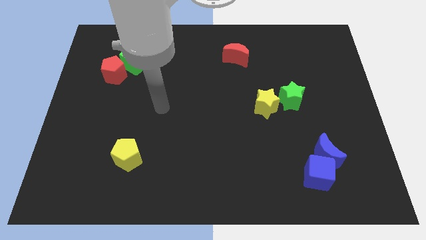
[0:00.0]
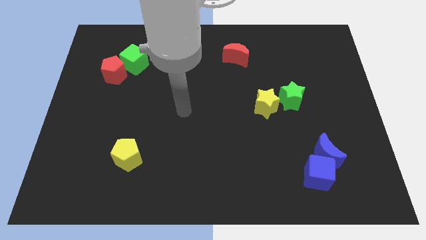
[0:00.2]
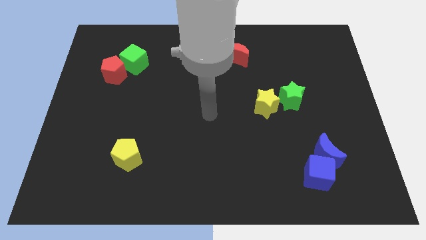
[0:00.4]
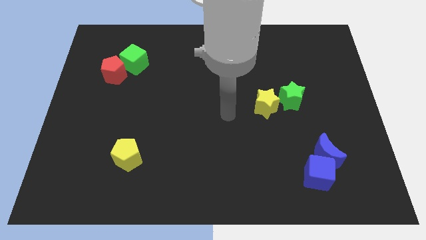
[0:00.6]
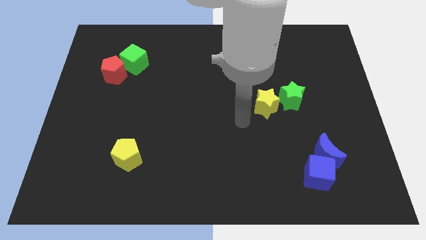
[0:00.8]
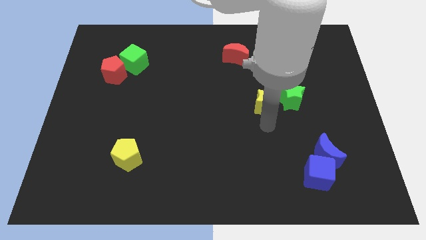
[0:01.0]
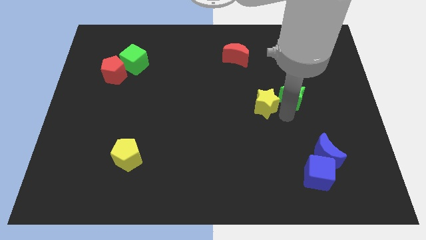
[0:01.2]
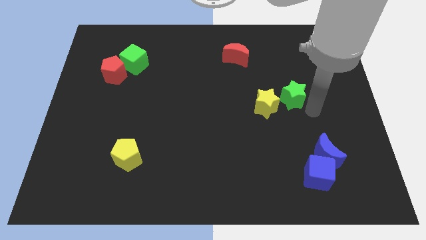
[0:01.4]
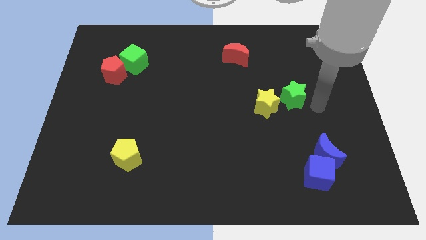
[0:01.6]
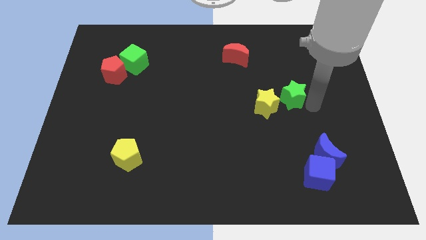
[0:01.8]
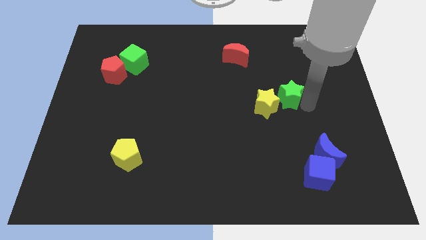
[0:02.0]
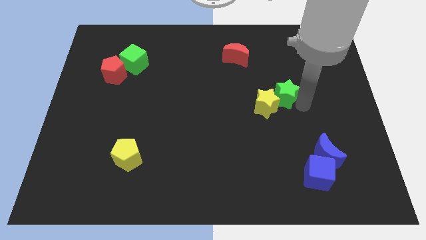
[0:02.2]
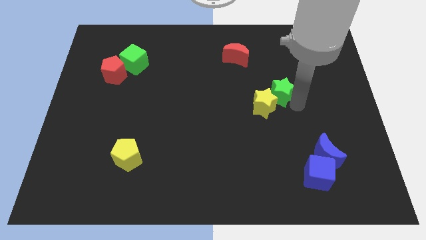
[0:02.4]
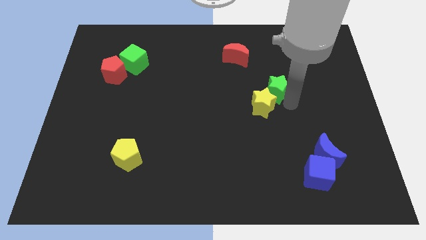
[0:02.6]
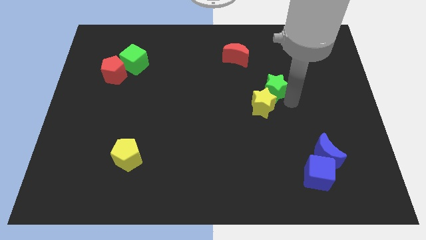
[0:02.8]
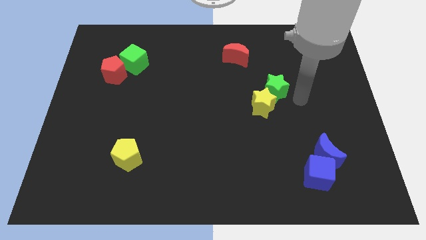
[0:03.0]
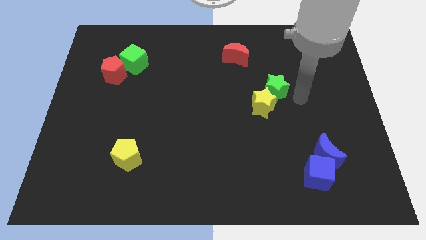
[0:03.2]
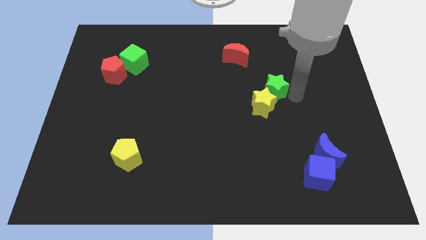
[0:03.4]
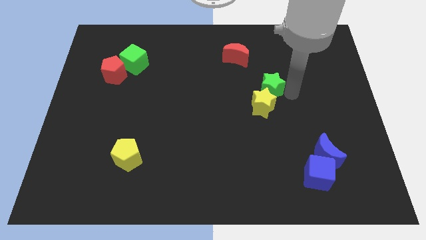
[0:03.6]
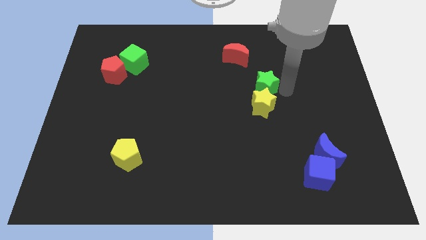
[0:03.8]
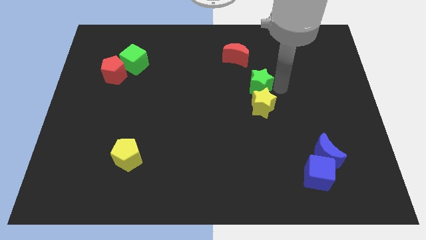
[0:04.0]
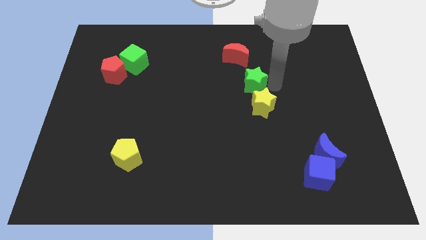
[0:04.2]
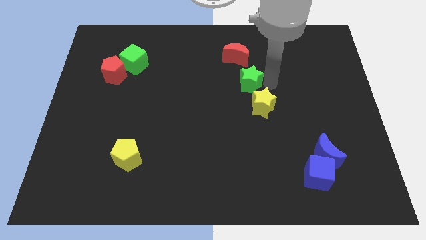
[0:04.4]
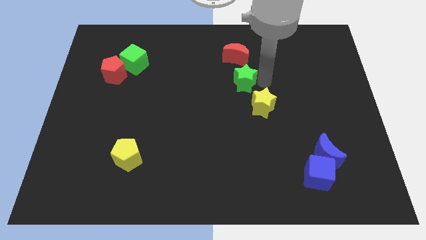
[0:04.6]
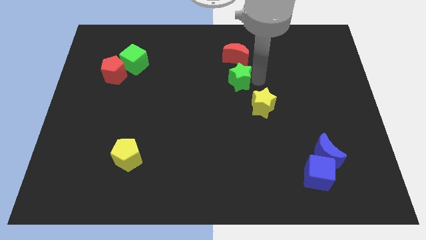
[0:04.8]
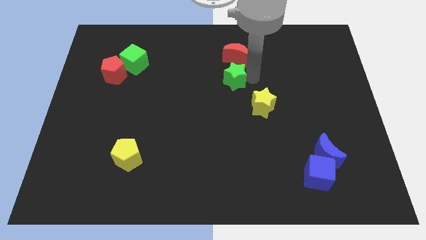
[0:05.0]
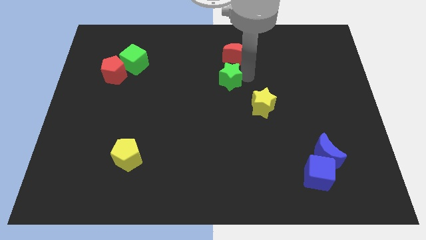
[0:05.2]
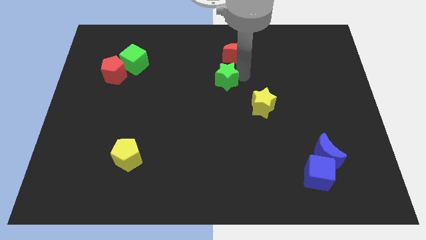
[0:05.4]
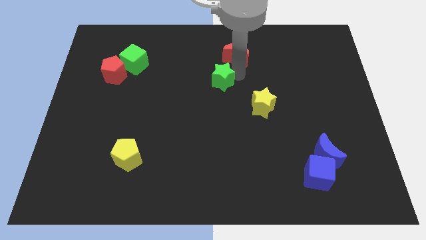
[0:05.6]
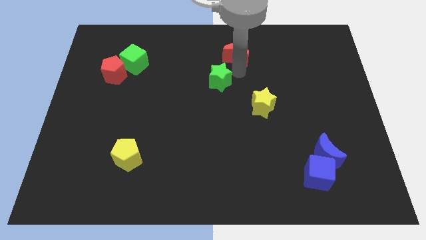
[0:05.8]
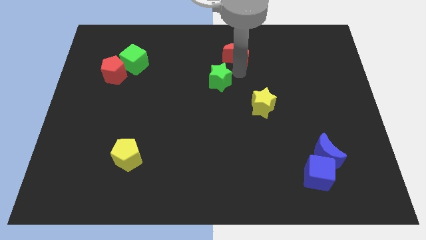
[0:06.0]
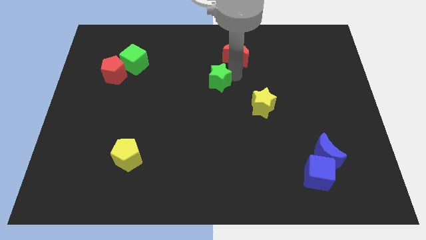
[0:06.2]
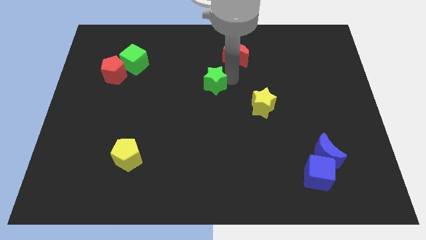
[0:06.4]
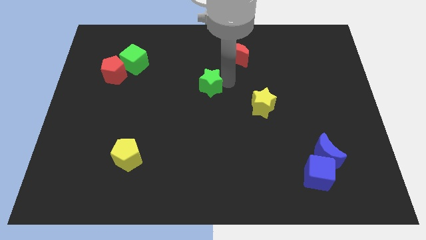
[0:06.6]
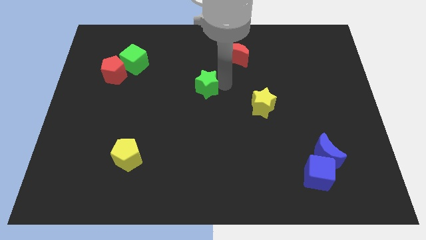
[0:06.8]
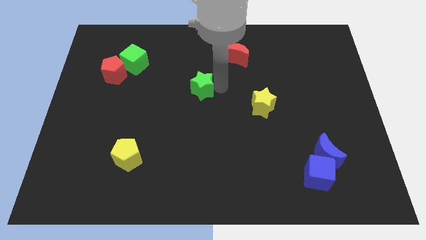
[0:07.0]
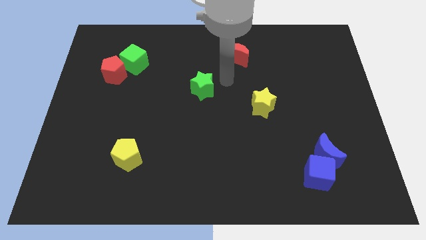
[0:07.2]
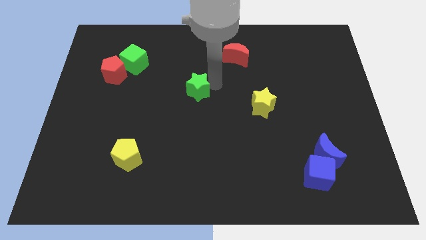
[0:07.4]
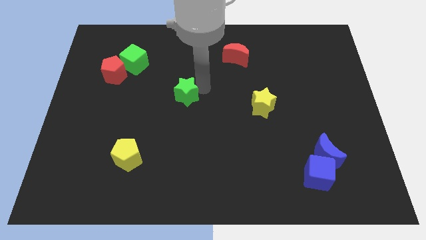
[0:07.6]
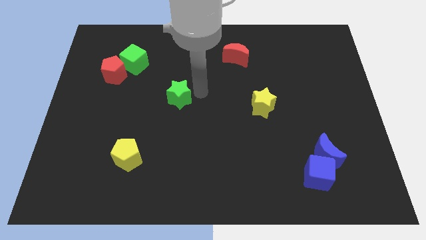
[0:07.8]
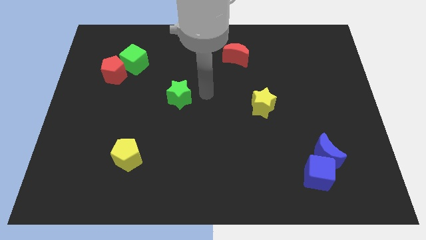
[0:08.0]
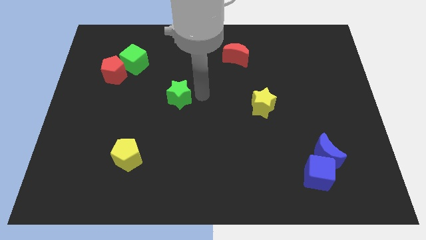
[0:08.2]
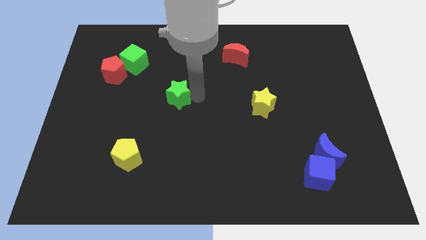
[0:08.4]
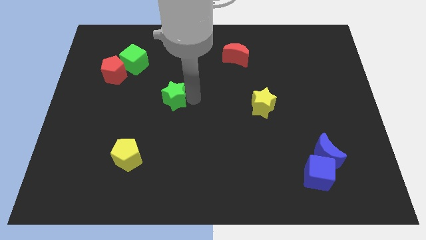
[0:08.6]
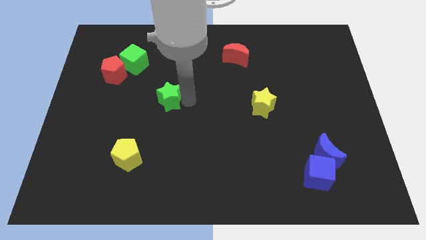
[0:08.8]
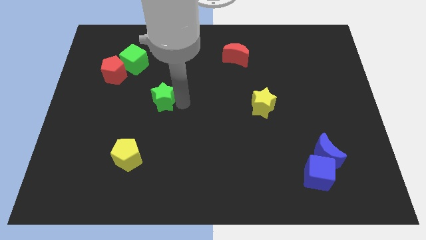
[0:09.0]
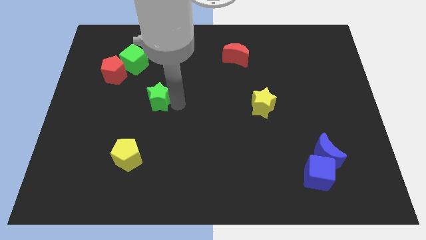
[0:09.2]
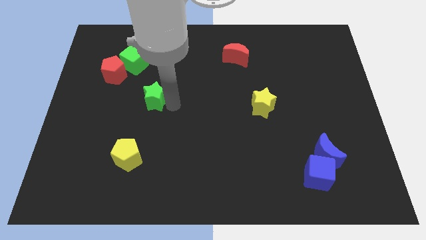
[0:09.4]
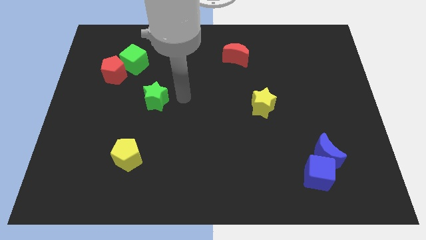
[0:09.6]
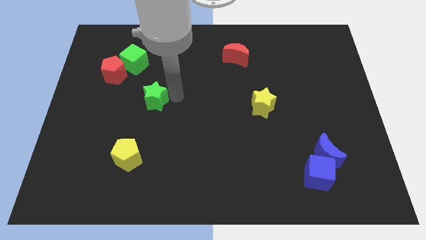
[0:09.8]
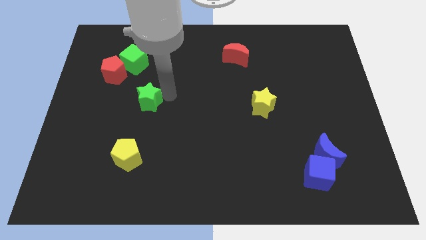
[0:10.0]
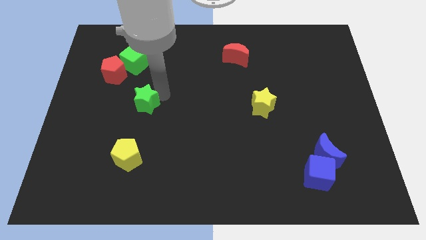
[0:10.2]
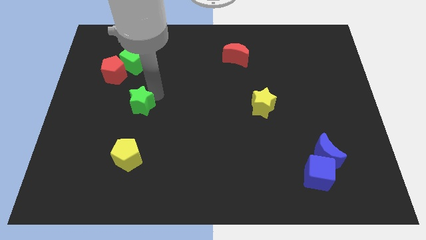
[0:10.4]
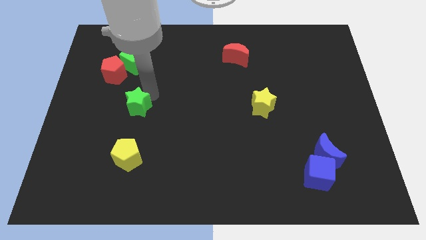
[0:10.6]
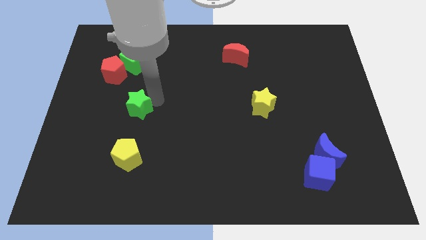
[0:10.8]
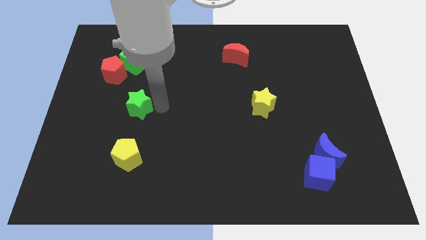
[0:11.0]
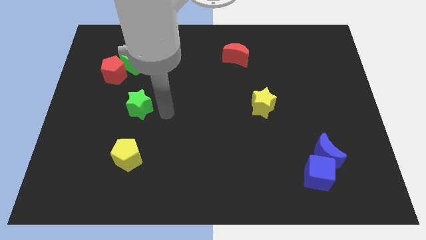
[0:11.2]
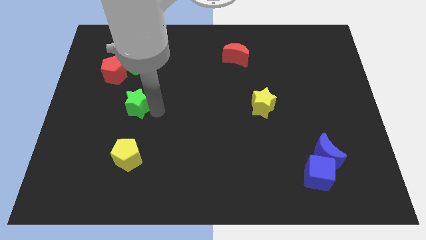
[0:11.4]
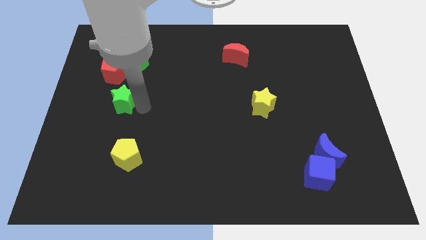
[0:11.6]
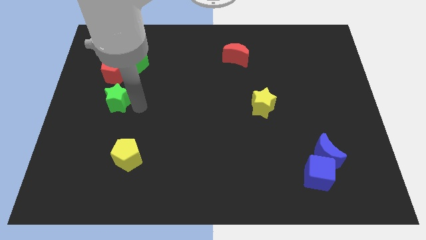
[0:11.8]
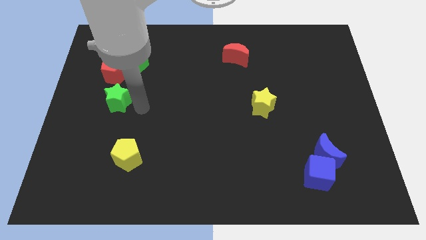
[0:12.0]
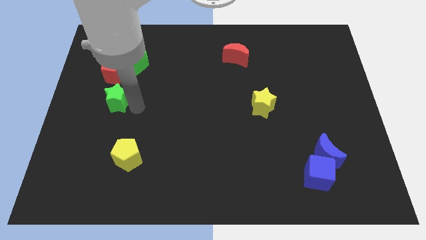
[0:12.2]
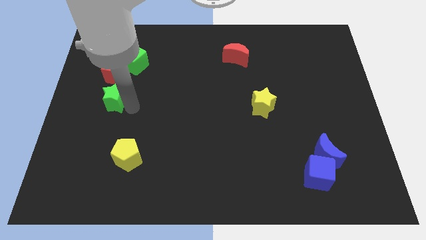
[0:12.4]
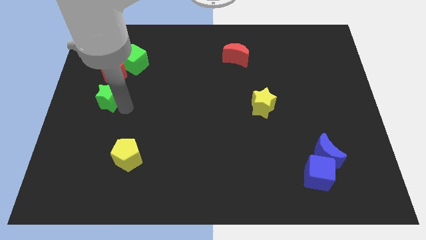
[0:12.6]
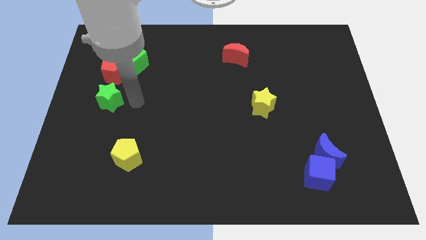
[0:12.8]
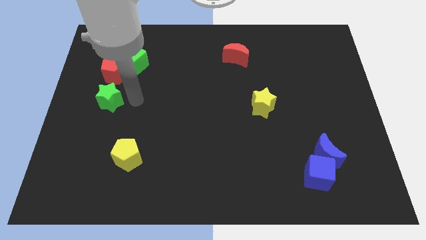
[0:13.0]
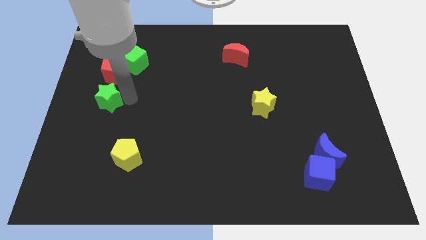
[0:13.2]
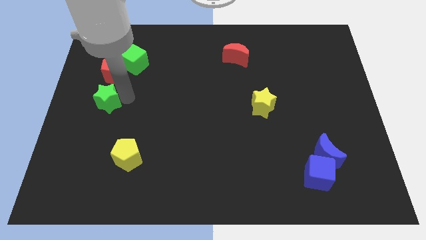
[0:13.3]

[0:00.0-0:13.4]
put the green star to the center left
